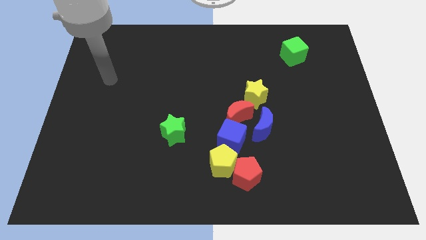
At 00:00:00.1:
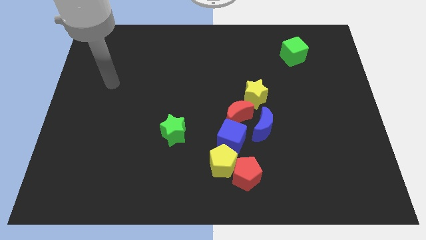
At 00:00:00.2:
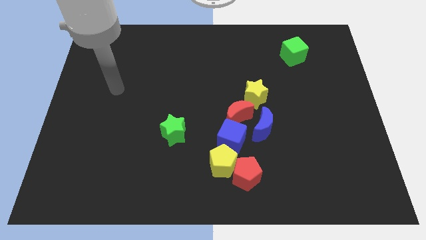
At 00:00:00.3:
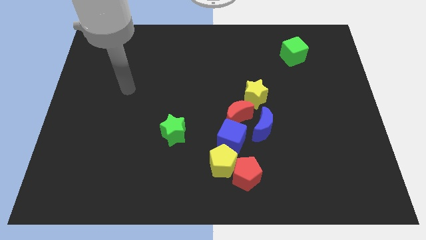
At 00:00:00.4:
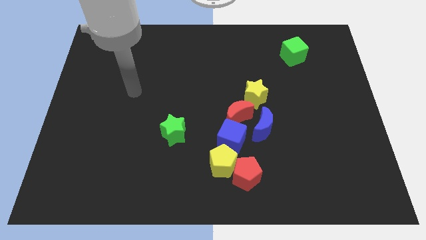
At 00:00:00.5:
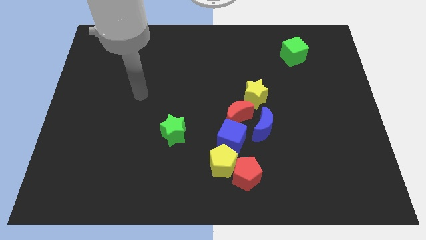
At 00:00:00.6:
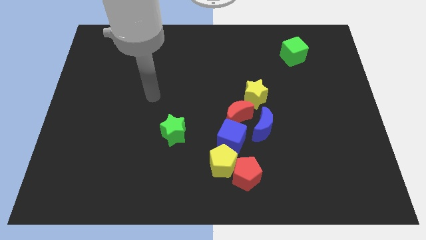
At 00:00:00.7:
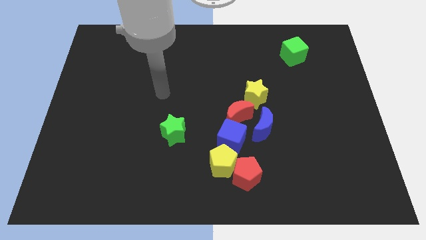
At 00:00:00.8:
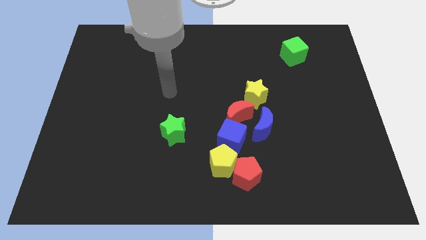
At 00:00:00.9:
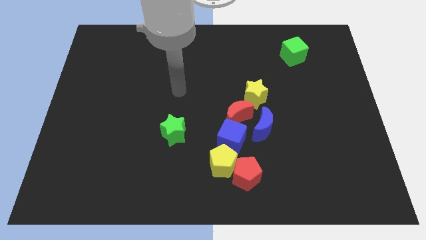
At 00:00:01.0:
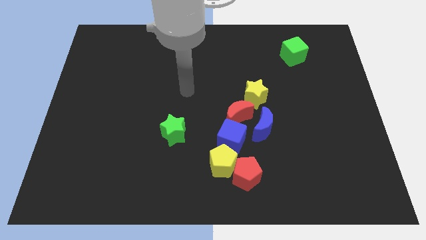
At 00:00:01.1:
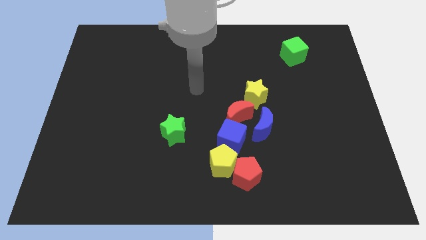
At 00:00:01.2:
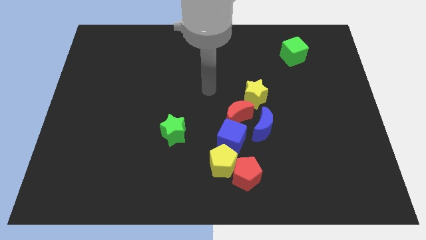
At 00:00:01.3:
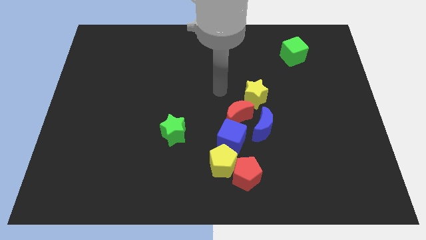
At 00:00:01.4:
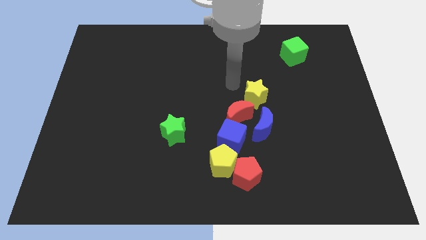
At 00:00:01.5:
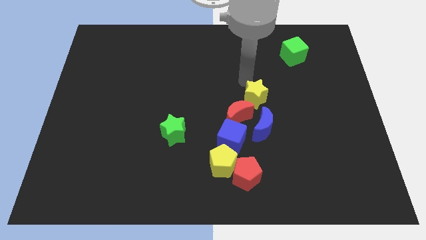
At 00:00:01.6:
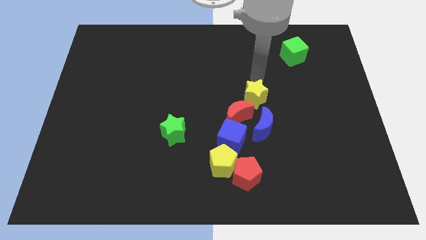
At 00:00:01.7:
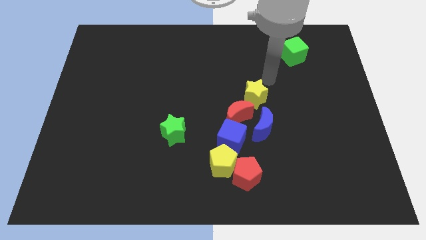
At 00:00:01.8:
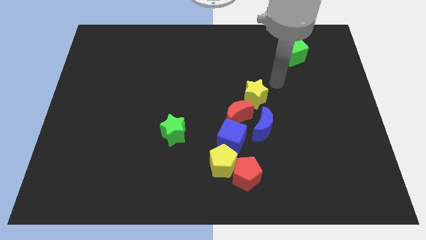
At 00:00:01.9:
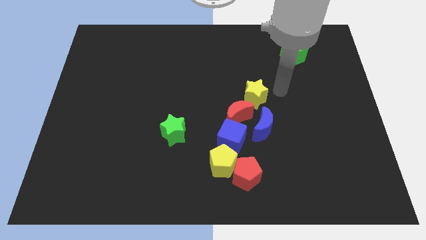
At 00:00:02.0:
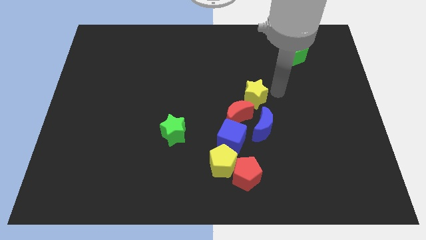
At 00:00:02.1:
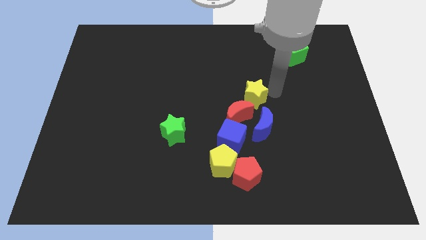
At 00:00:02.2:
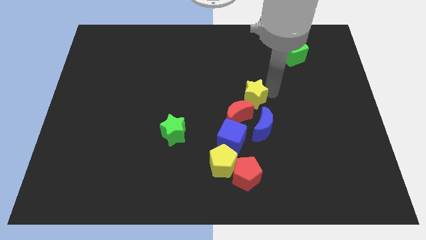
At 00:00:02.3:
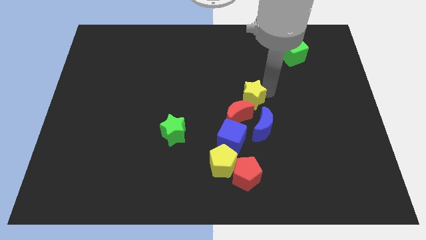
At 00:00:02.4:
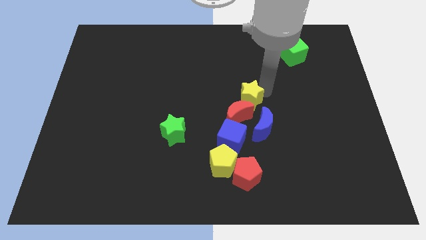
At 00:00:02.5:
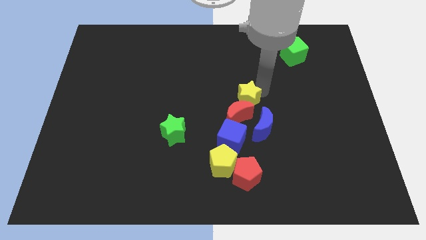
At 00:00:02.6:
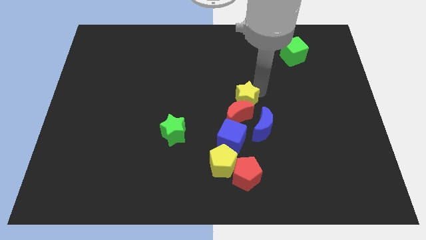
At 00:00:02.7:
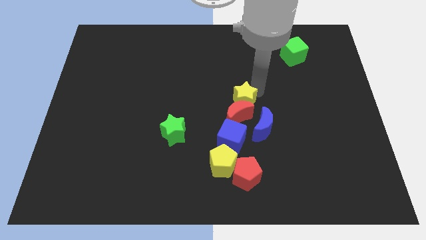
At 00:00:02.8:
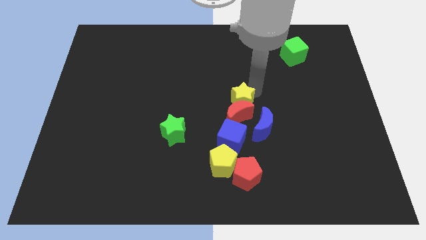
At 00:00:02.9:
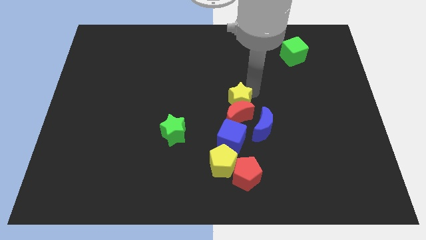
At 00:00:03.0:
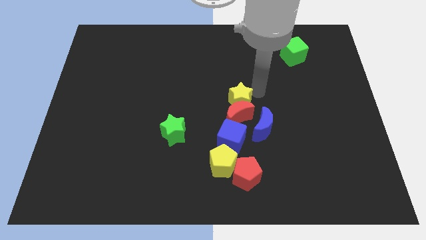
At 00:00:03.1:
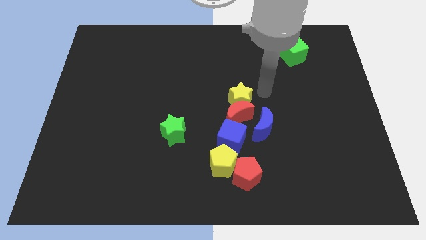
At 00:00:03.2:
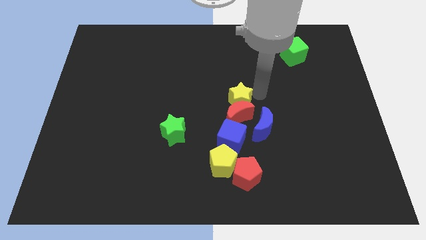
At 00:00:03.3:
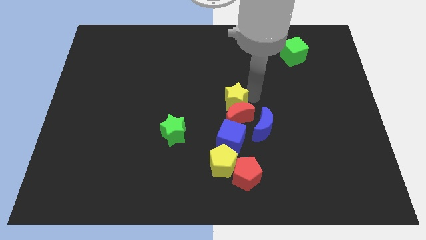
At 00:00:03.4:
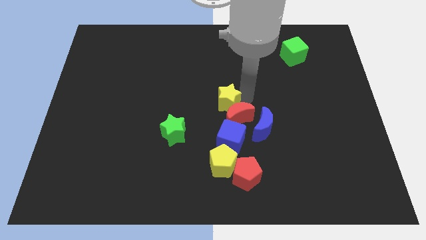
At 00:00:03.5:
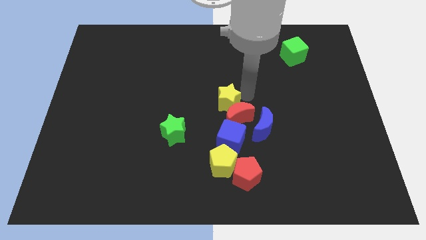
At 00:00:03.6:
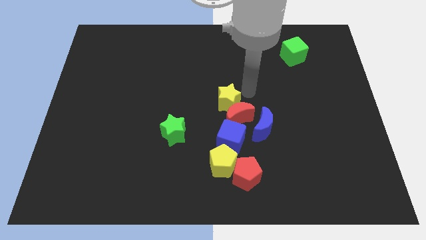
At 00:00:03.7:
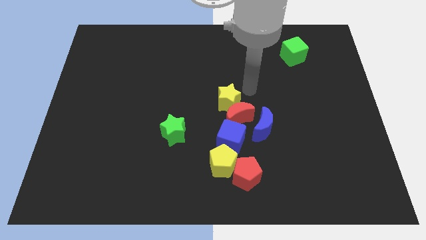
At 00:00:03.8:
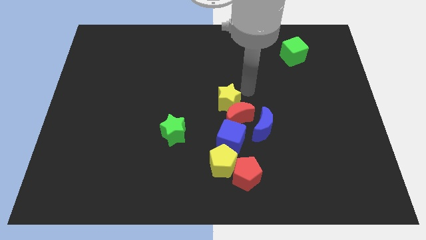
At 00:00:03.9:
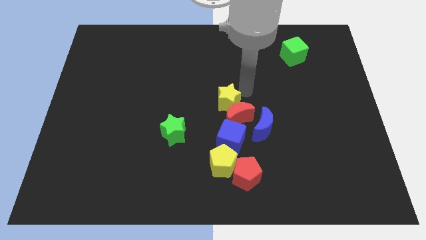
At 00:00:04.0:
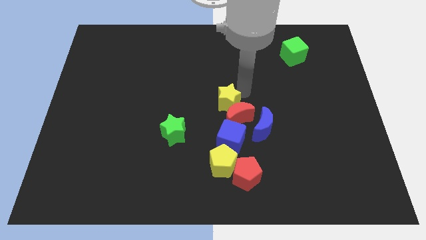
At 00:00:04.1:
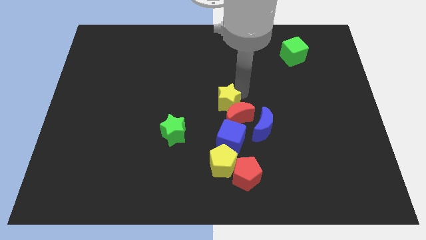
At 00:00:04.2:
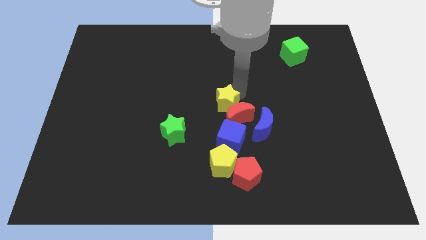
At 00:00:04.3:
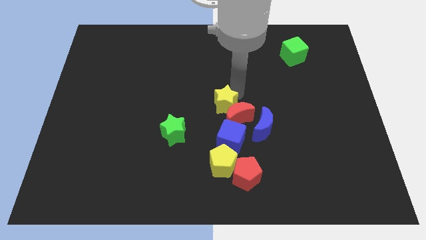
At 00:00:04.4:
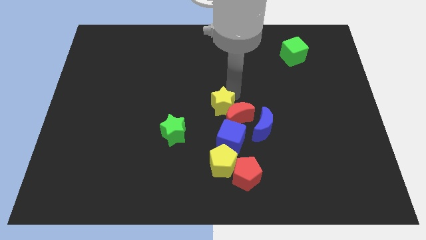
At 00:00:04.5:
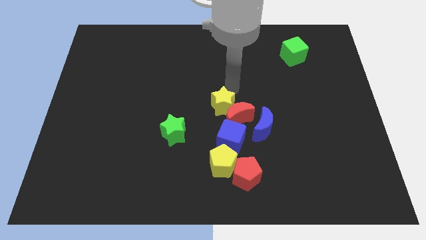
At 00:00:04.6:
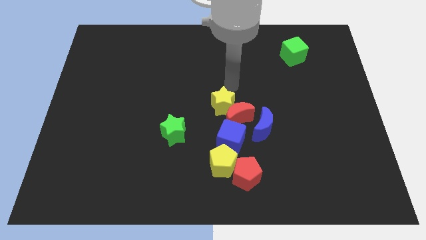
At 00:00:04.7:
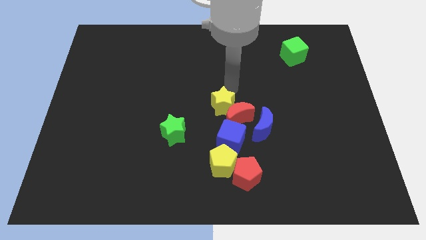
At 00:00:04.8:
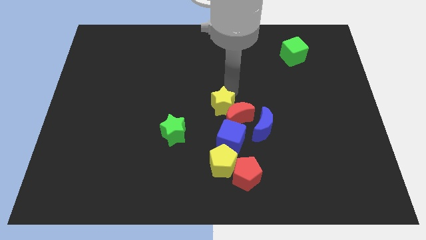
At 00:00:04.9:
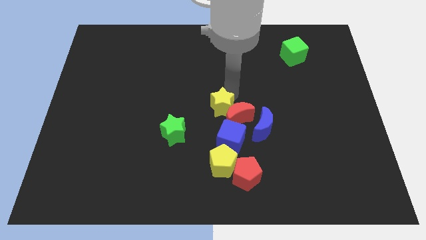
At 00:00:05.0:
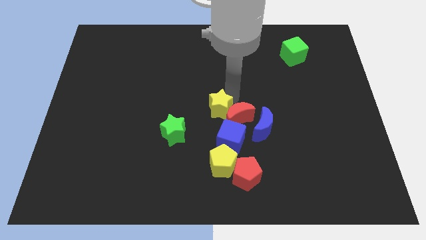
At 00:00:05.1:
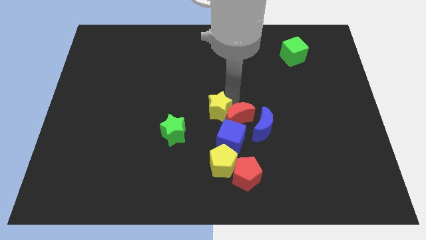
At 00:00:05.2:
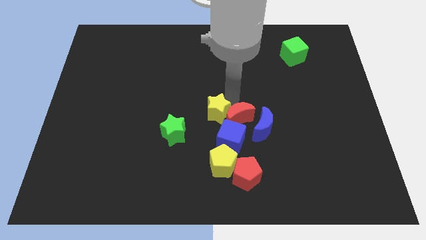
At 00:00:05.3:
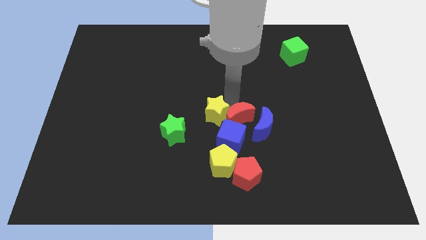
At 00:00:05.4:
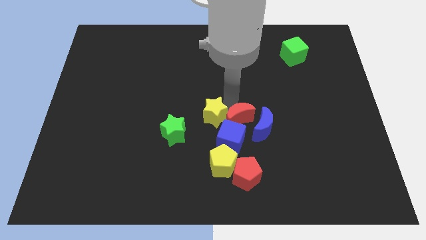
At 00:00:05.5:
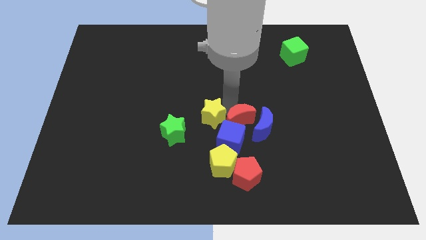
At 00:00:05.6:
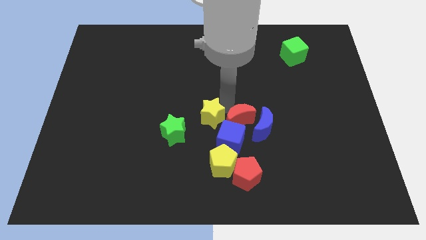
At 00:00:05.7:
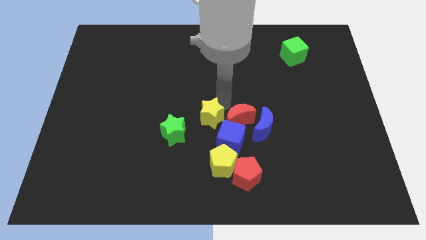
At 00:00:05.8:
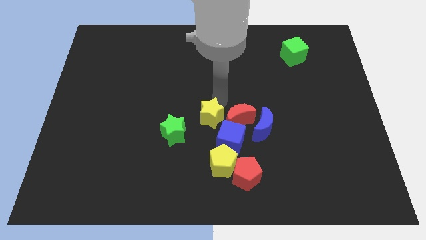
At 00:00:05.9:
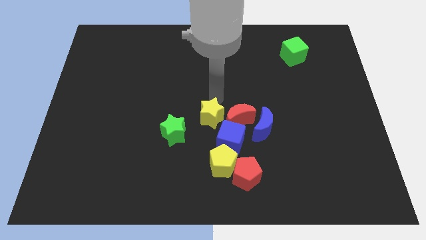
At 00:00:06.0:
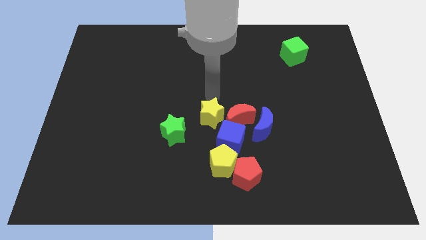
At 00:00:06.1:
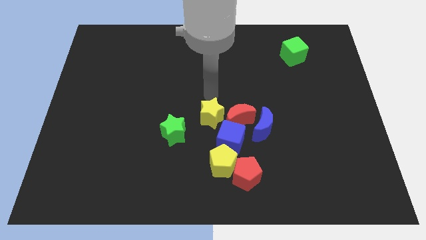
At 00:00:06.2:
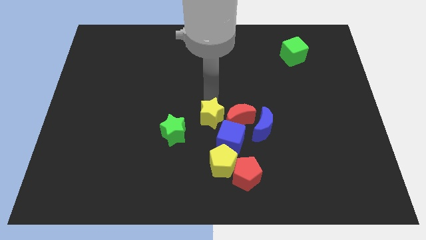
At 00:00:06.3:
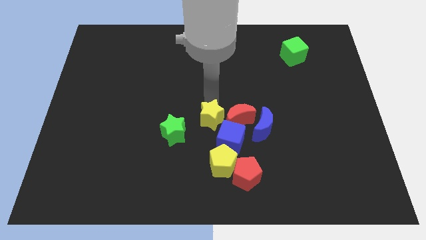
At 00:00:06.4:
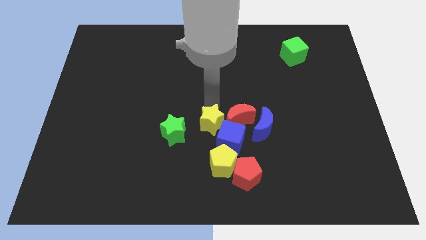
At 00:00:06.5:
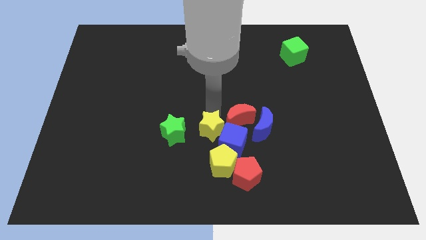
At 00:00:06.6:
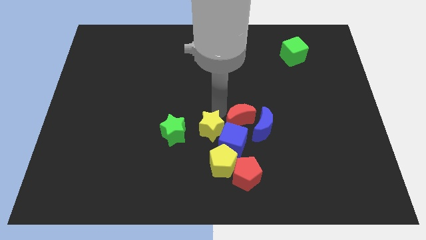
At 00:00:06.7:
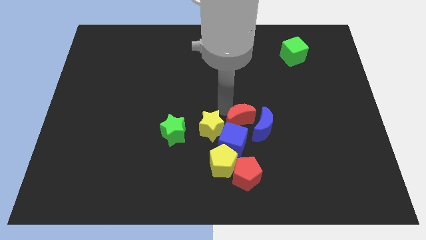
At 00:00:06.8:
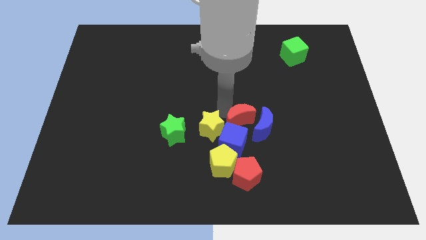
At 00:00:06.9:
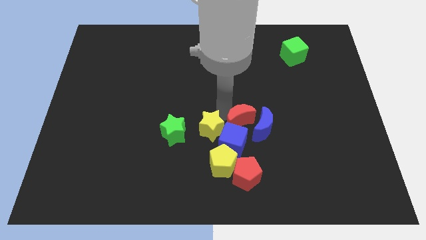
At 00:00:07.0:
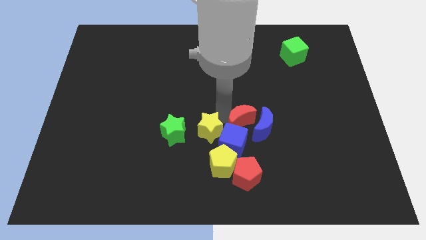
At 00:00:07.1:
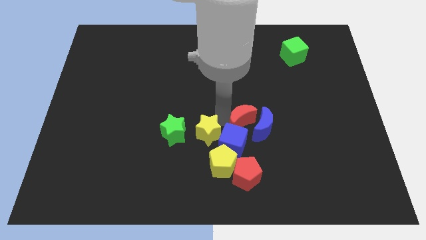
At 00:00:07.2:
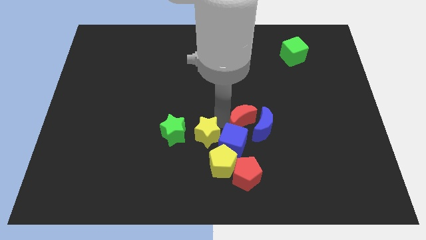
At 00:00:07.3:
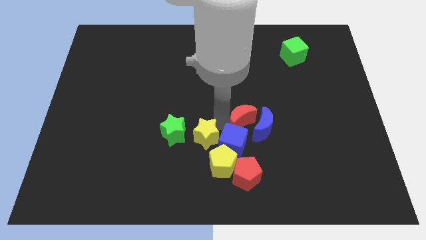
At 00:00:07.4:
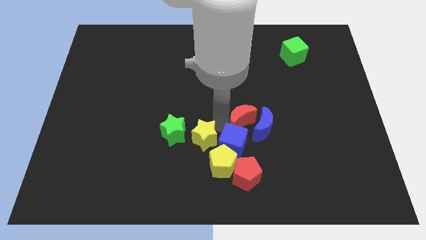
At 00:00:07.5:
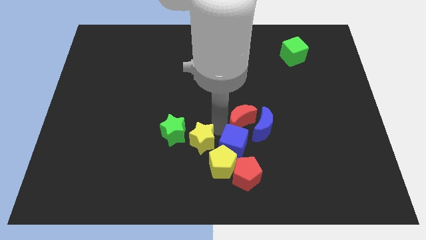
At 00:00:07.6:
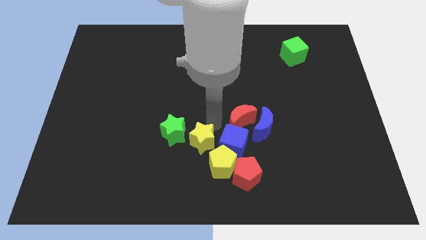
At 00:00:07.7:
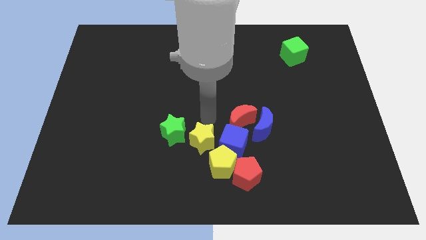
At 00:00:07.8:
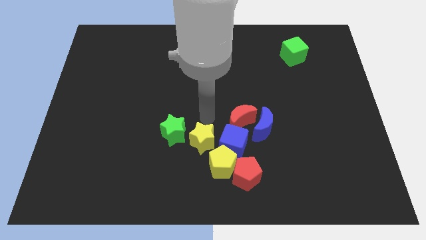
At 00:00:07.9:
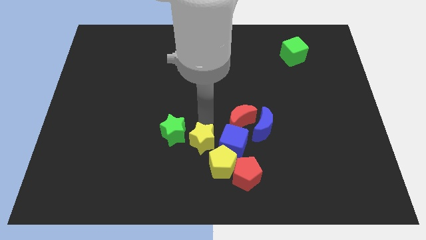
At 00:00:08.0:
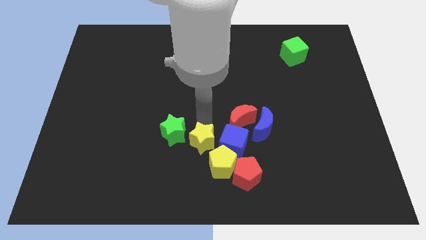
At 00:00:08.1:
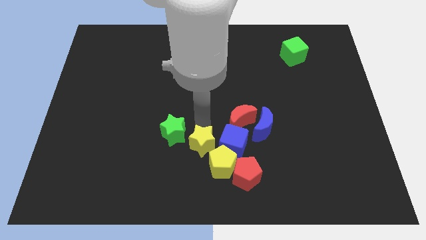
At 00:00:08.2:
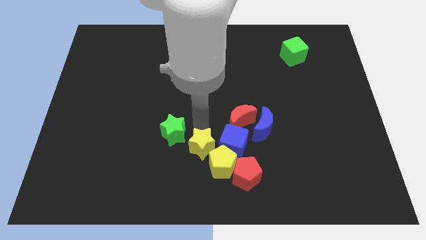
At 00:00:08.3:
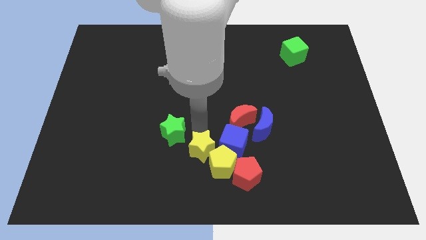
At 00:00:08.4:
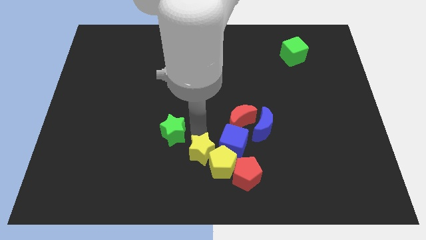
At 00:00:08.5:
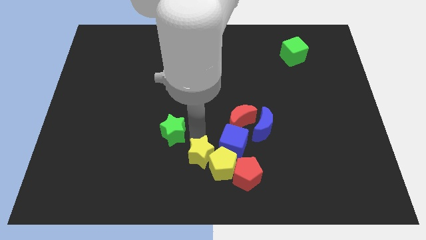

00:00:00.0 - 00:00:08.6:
push the yellow star to the bottom side
